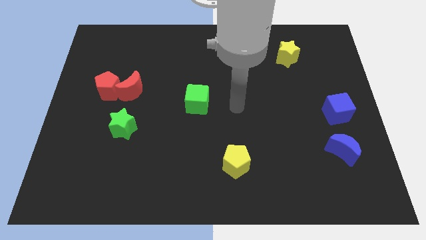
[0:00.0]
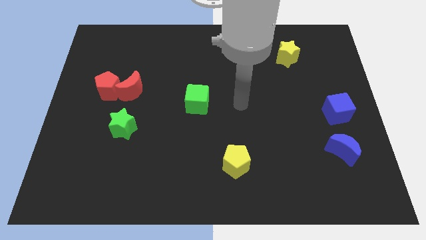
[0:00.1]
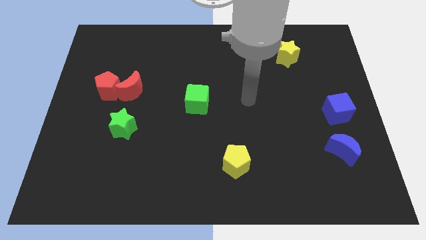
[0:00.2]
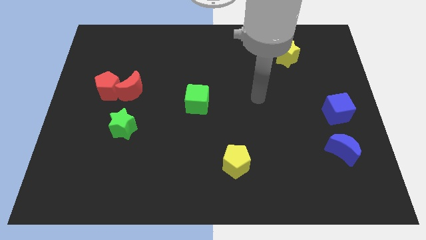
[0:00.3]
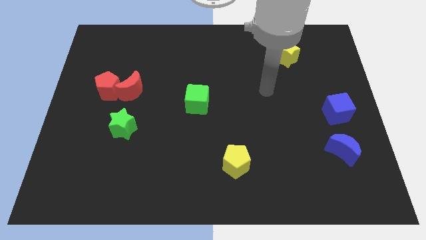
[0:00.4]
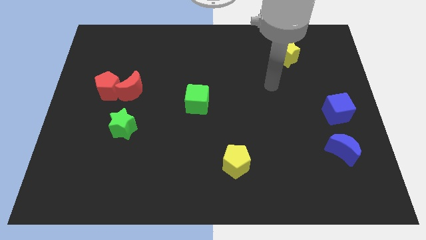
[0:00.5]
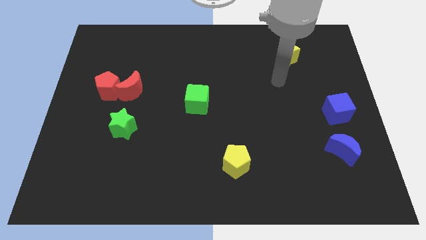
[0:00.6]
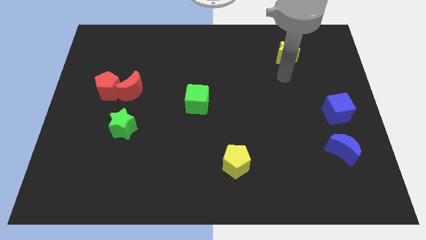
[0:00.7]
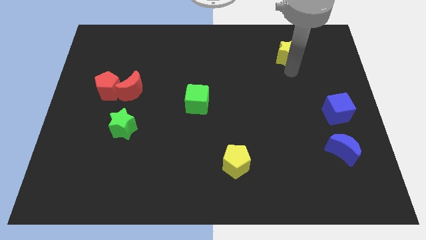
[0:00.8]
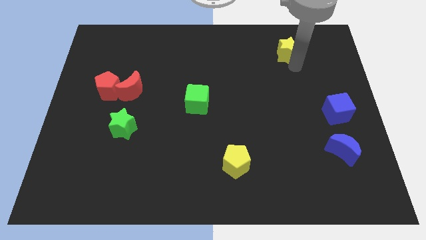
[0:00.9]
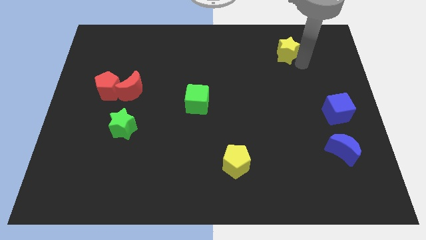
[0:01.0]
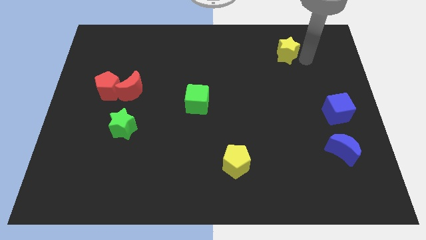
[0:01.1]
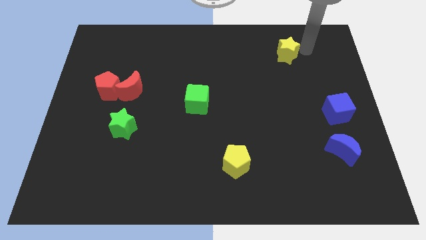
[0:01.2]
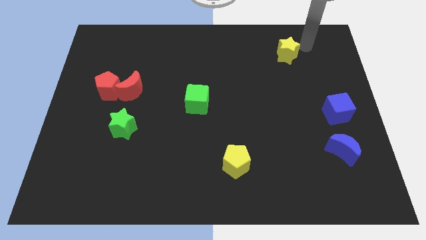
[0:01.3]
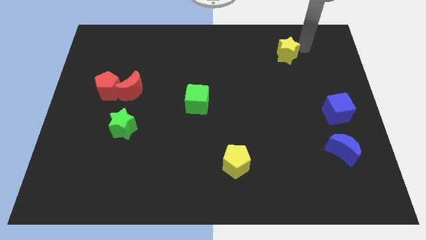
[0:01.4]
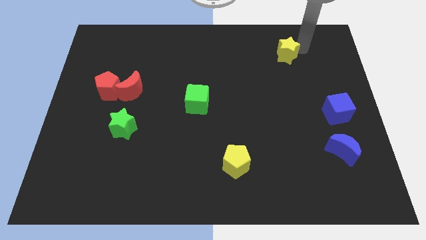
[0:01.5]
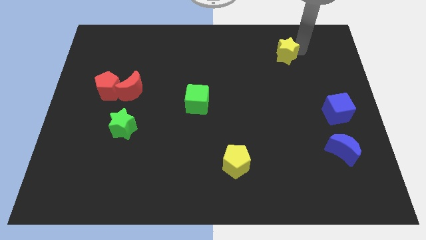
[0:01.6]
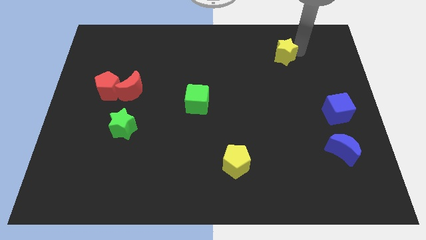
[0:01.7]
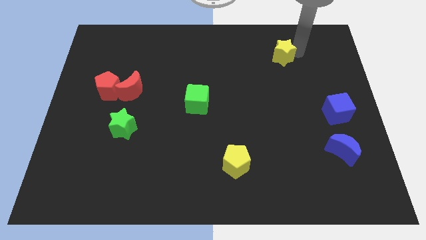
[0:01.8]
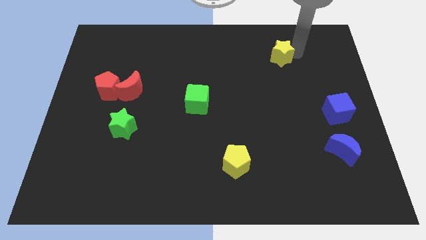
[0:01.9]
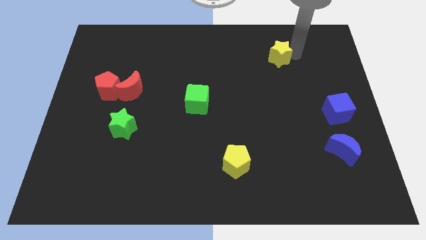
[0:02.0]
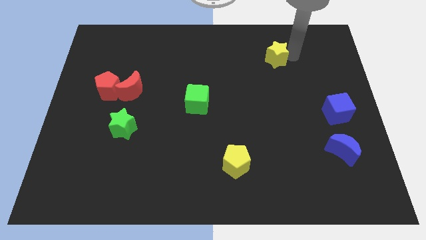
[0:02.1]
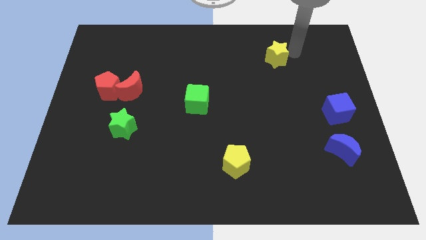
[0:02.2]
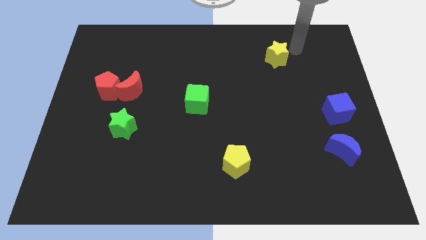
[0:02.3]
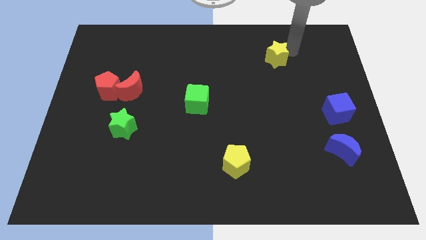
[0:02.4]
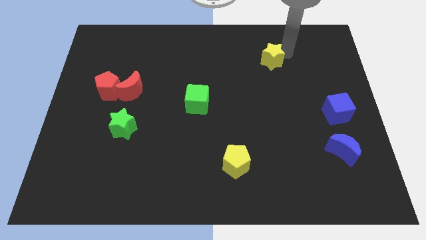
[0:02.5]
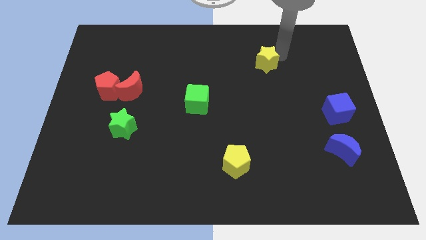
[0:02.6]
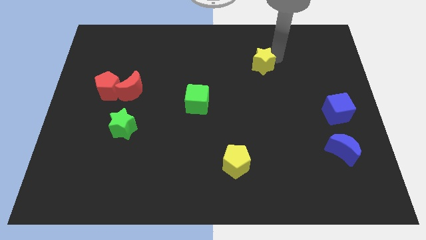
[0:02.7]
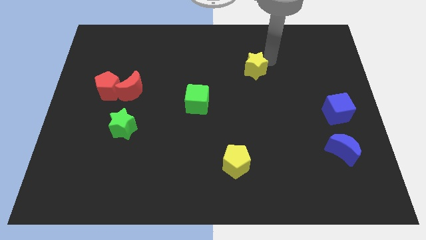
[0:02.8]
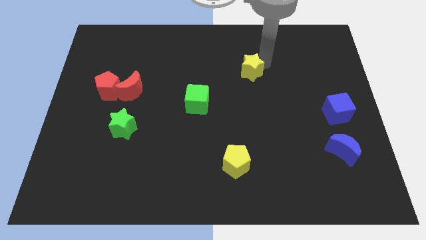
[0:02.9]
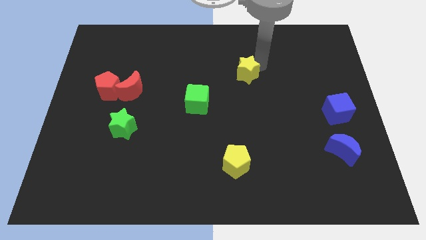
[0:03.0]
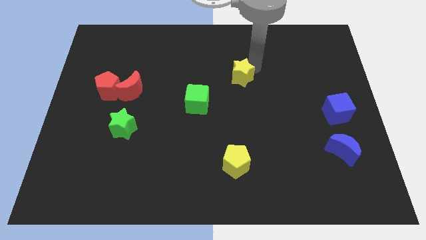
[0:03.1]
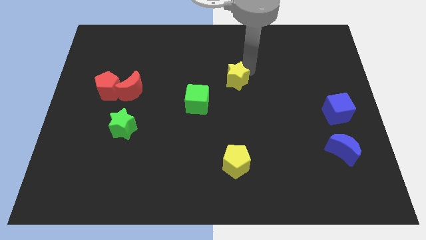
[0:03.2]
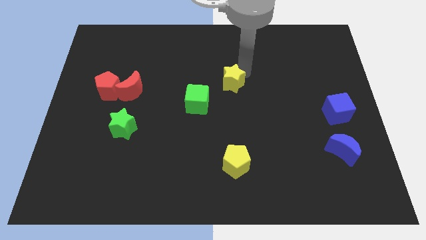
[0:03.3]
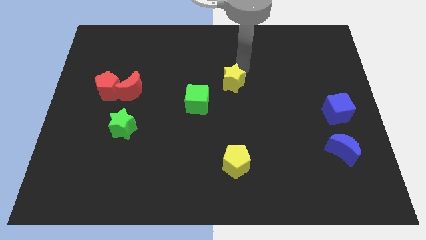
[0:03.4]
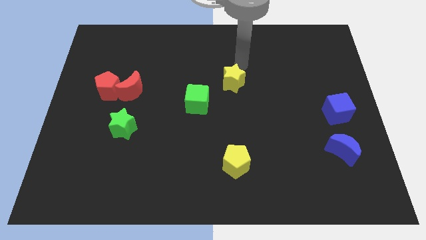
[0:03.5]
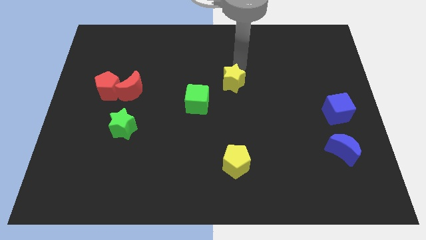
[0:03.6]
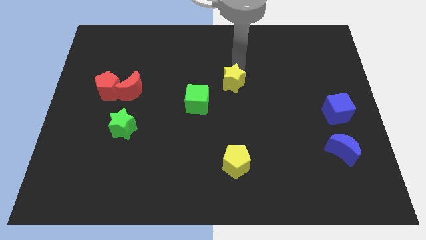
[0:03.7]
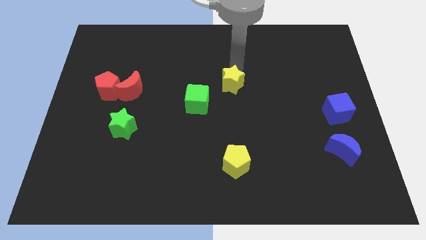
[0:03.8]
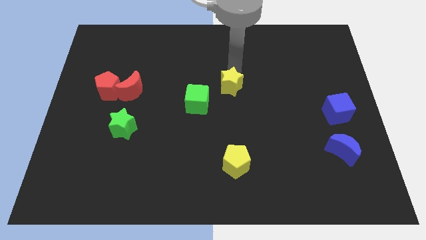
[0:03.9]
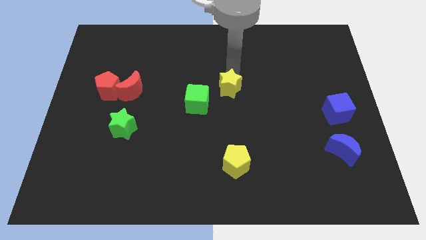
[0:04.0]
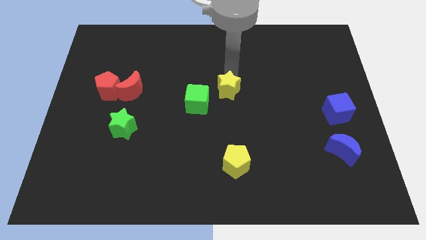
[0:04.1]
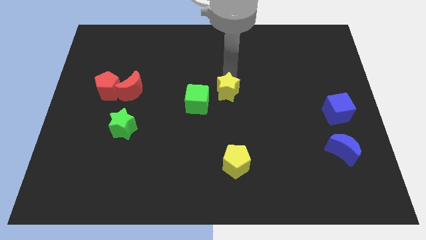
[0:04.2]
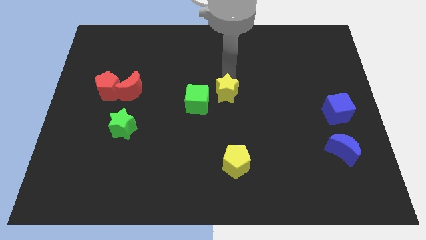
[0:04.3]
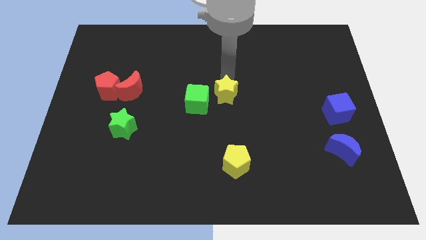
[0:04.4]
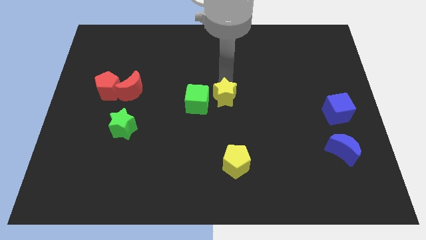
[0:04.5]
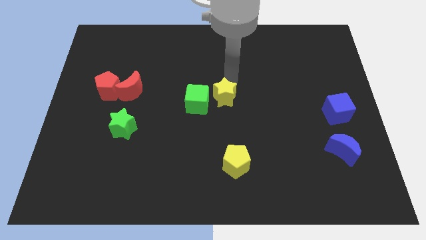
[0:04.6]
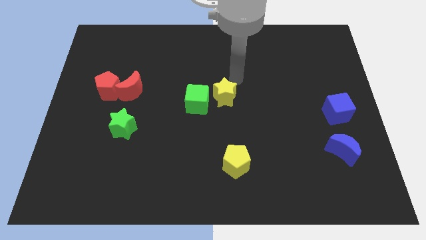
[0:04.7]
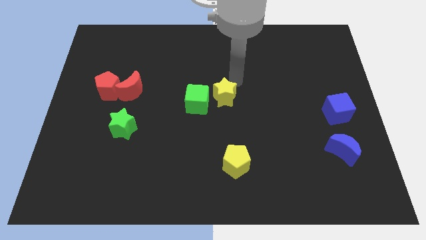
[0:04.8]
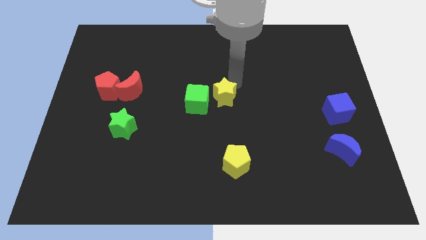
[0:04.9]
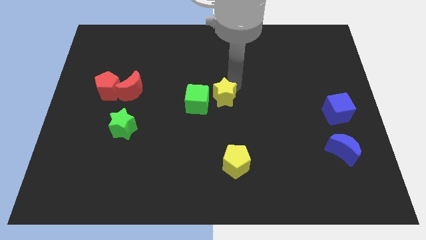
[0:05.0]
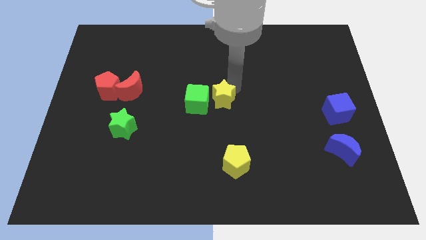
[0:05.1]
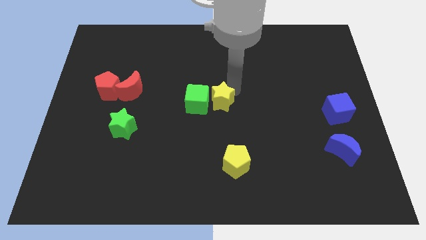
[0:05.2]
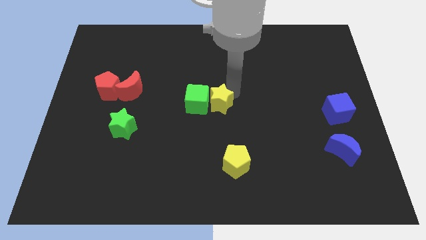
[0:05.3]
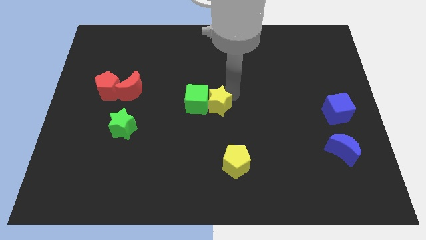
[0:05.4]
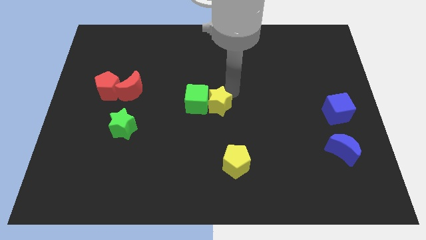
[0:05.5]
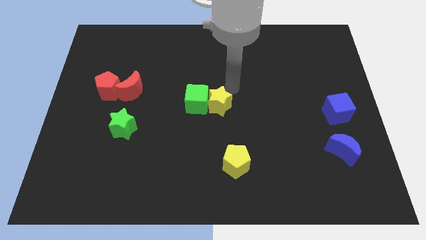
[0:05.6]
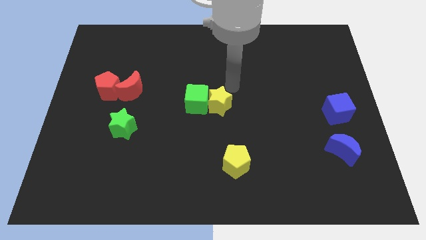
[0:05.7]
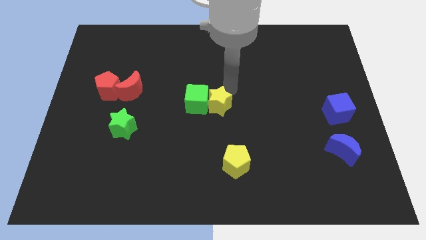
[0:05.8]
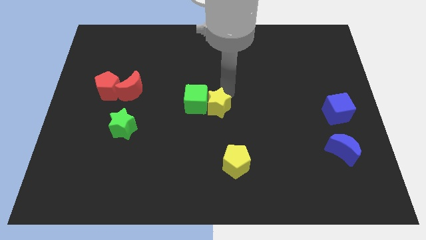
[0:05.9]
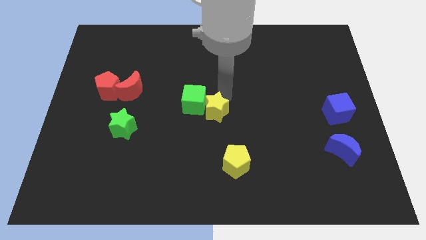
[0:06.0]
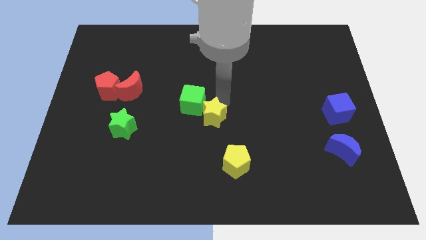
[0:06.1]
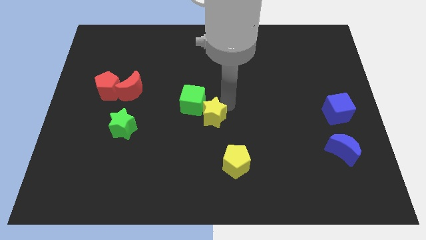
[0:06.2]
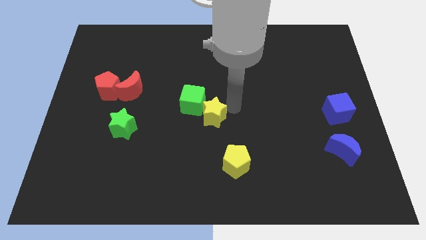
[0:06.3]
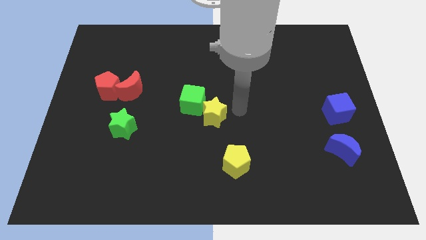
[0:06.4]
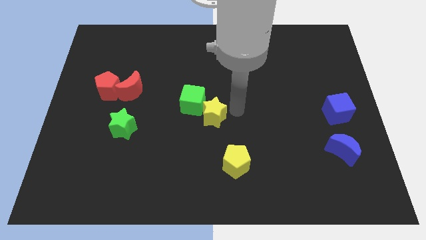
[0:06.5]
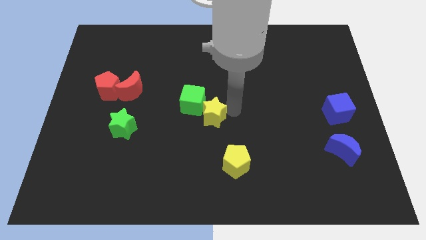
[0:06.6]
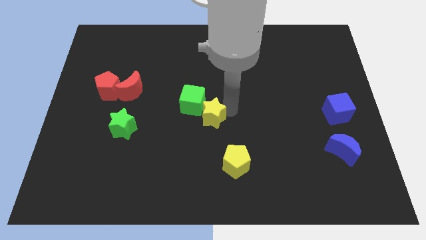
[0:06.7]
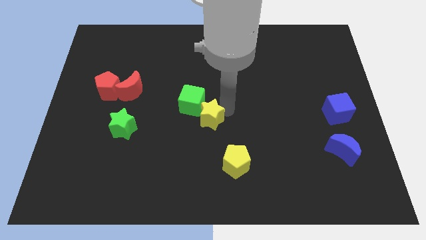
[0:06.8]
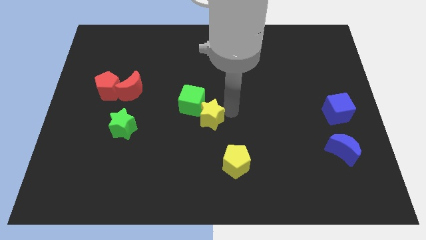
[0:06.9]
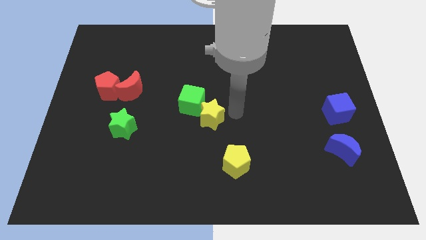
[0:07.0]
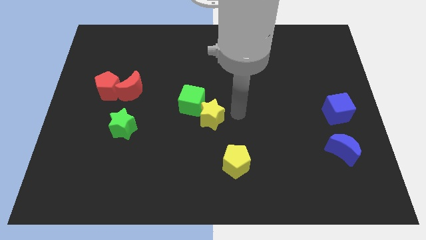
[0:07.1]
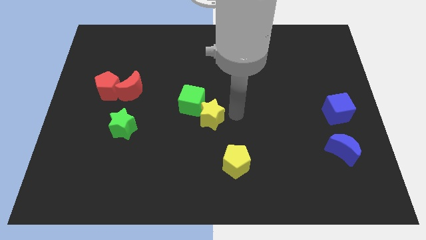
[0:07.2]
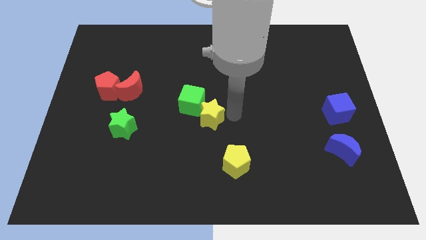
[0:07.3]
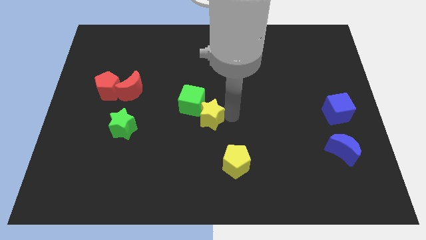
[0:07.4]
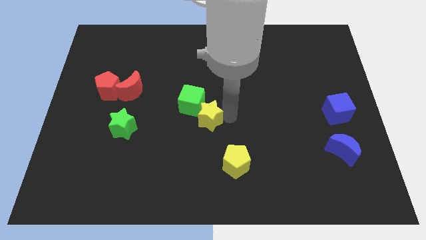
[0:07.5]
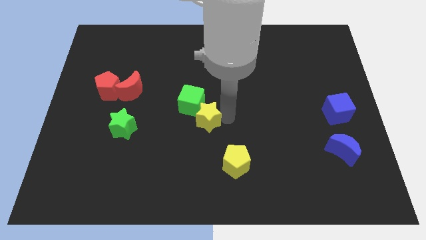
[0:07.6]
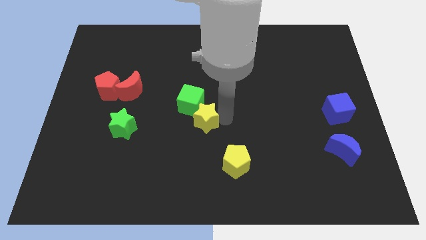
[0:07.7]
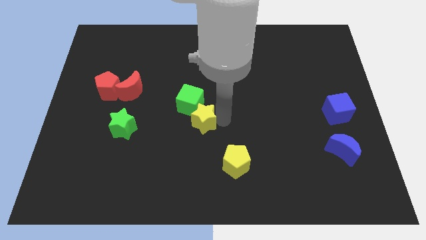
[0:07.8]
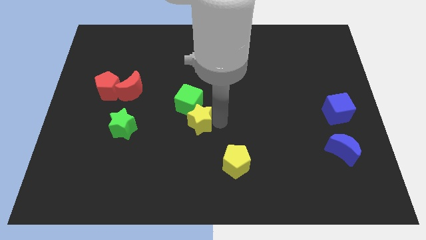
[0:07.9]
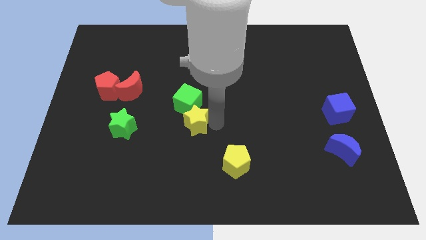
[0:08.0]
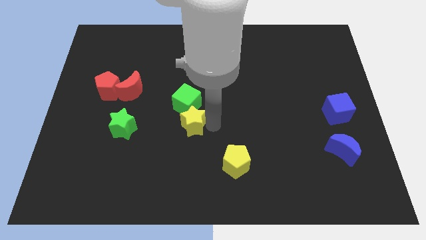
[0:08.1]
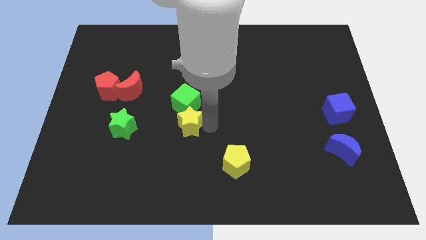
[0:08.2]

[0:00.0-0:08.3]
move the yellow star to the bottom left side of the green cube
